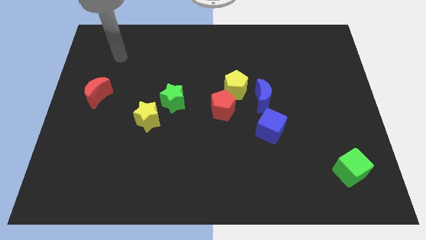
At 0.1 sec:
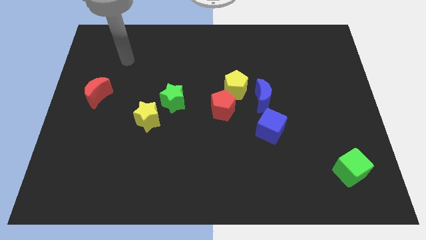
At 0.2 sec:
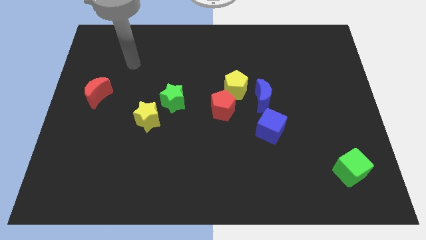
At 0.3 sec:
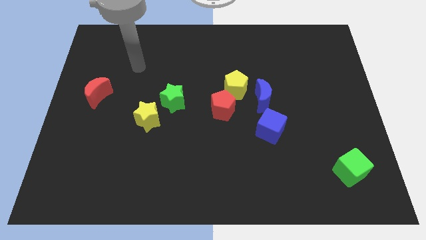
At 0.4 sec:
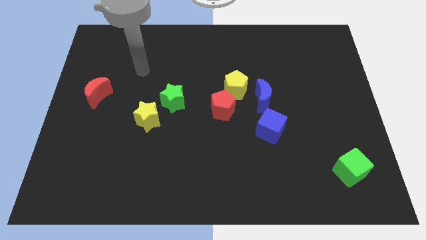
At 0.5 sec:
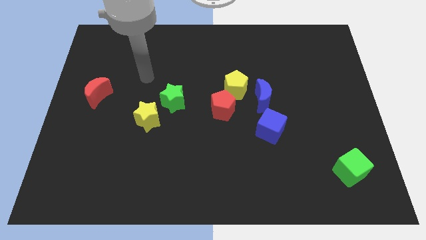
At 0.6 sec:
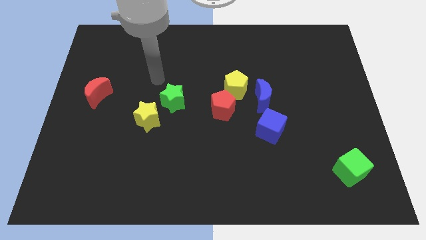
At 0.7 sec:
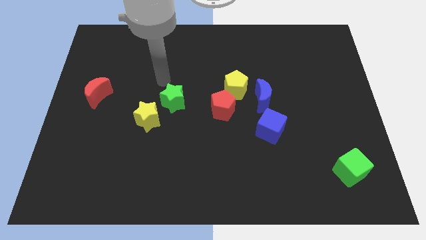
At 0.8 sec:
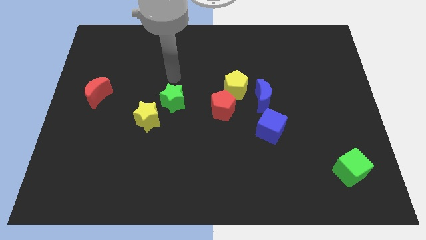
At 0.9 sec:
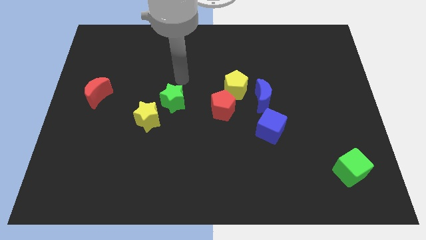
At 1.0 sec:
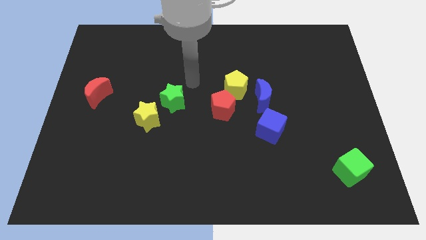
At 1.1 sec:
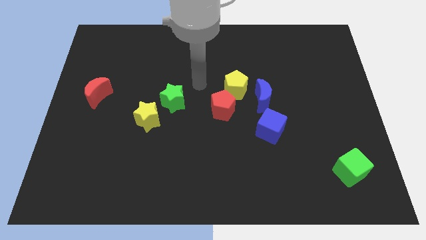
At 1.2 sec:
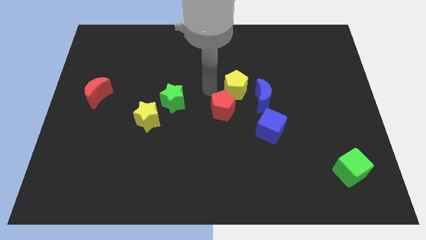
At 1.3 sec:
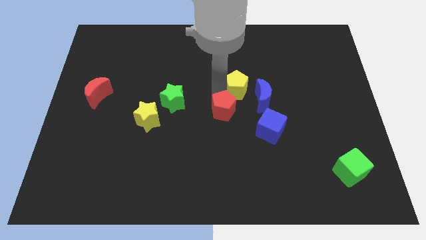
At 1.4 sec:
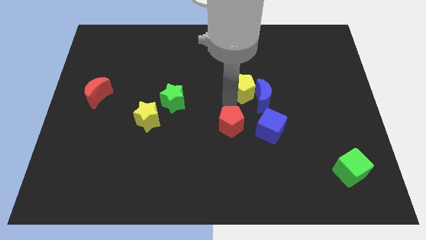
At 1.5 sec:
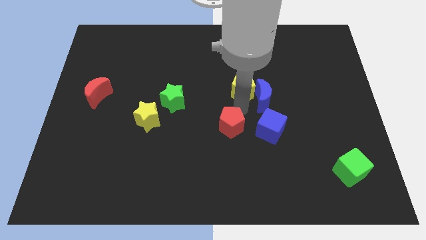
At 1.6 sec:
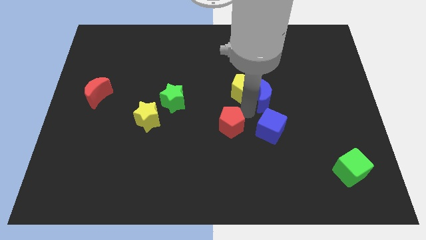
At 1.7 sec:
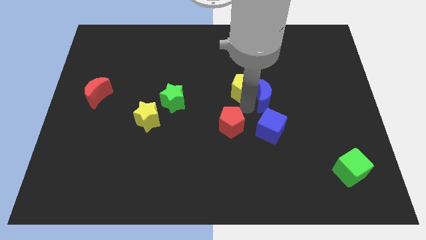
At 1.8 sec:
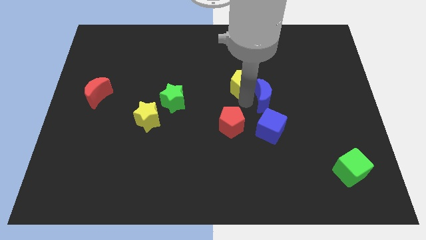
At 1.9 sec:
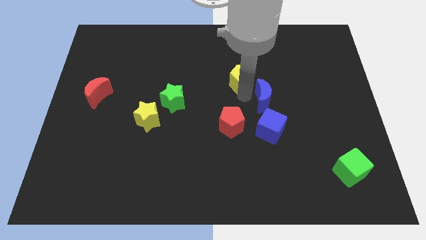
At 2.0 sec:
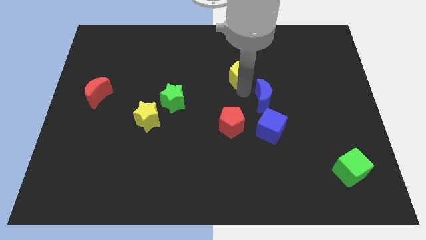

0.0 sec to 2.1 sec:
pull the yellow pentagon apart from the red pentagon and blue moon

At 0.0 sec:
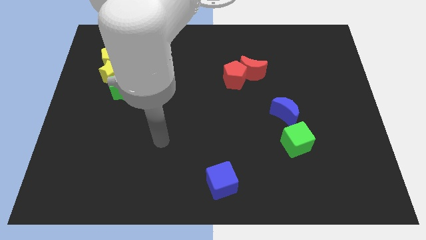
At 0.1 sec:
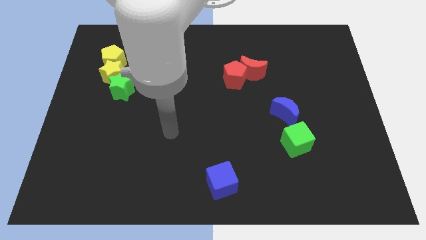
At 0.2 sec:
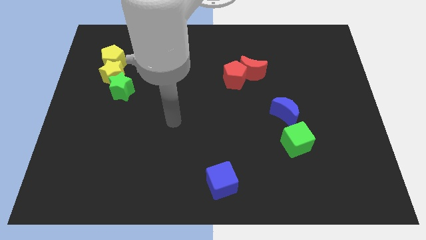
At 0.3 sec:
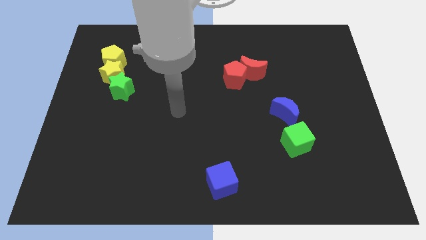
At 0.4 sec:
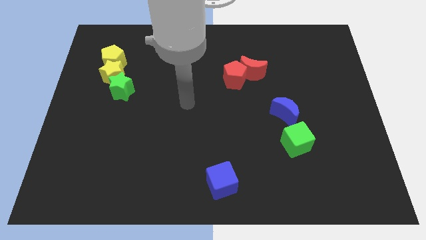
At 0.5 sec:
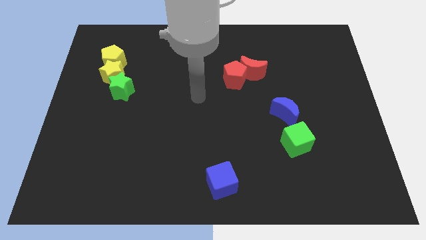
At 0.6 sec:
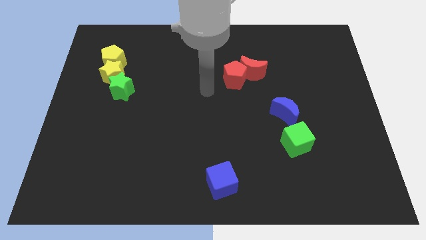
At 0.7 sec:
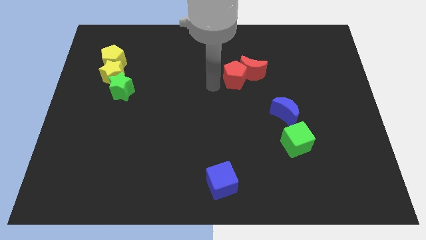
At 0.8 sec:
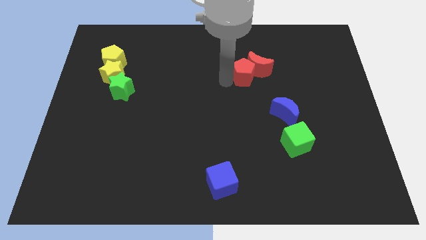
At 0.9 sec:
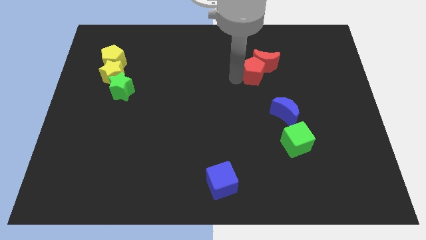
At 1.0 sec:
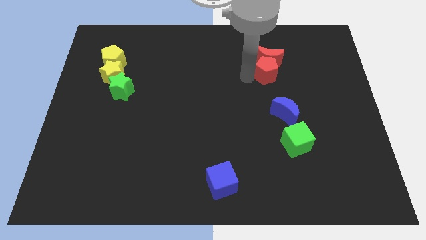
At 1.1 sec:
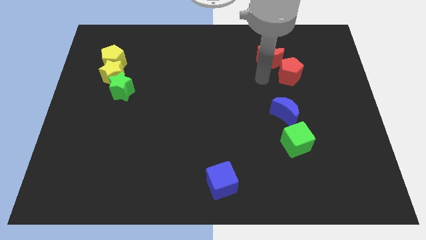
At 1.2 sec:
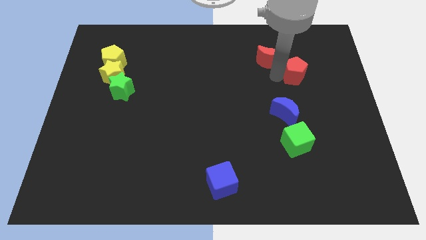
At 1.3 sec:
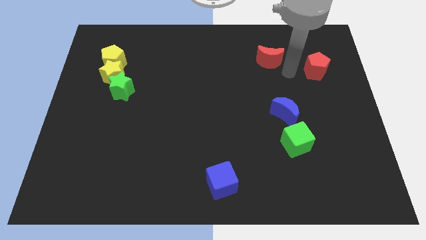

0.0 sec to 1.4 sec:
separate the red moon from the red pentagon

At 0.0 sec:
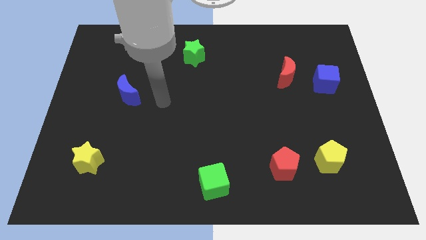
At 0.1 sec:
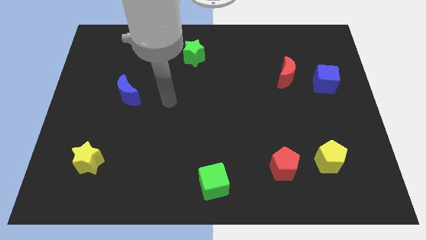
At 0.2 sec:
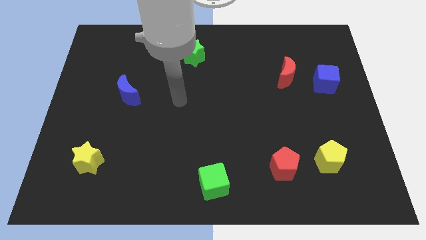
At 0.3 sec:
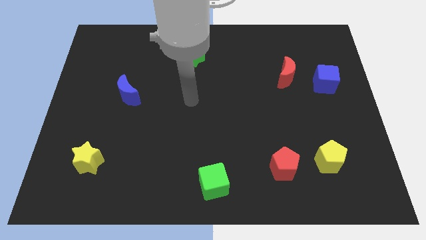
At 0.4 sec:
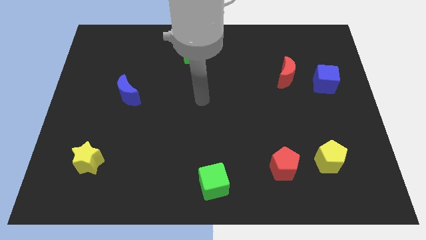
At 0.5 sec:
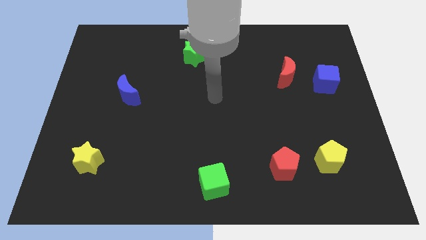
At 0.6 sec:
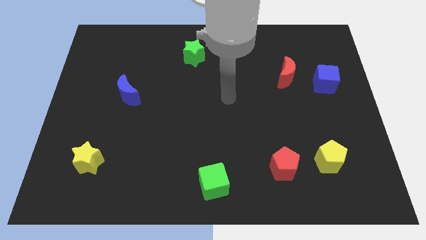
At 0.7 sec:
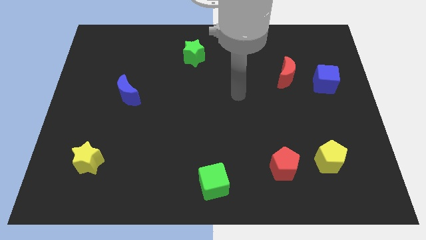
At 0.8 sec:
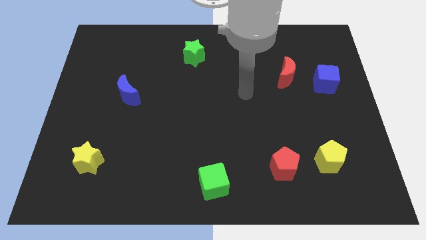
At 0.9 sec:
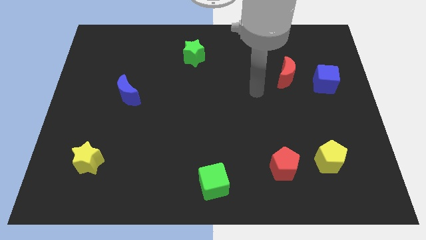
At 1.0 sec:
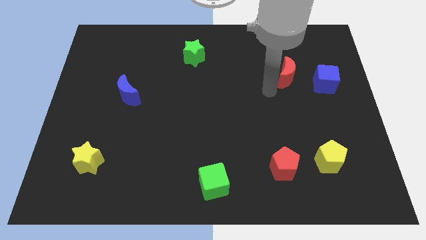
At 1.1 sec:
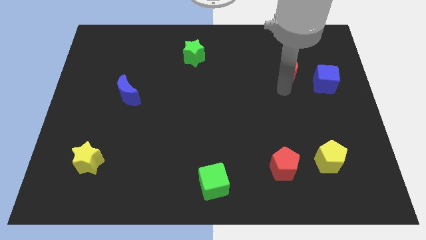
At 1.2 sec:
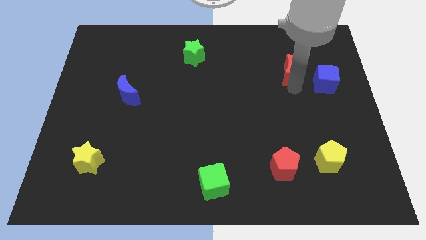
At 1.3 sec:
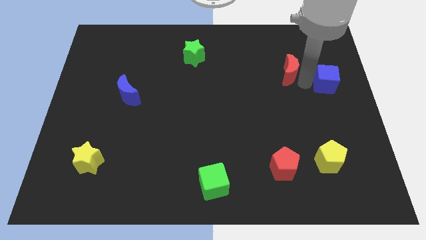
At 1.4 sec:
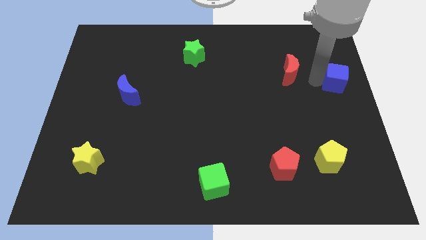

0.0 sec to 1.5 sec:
move the red moon away from the blue cube

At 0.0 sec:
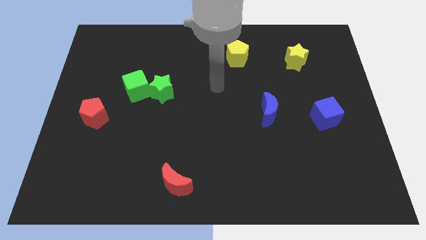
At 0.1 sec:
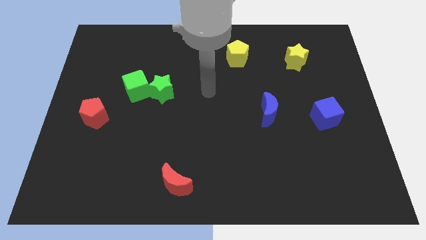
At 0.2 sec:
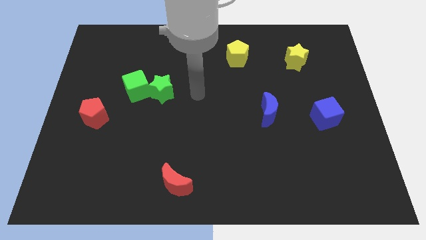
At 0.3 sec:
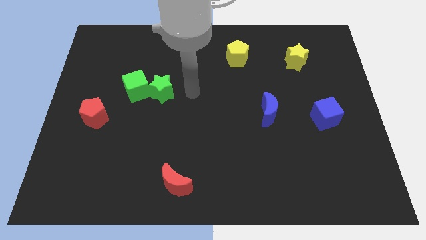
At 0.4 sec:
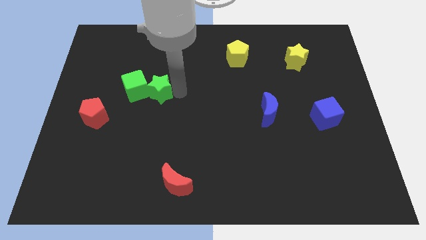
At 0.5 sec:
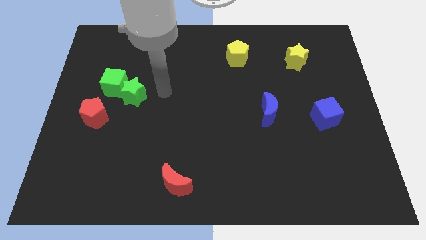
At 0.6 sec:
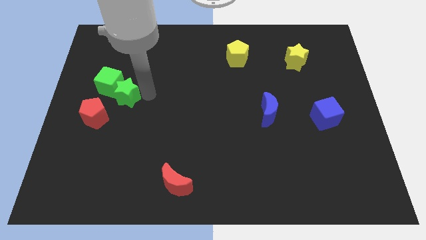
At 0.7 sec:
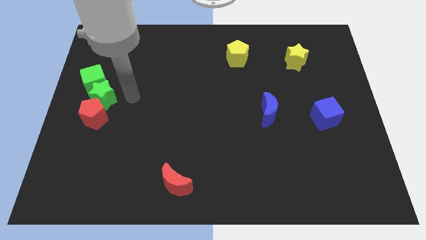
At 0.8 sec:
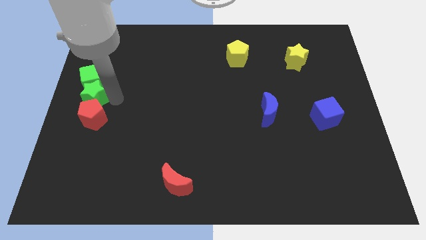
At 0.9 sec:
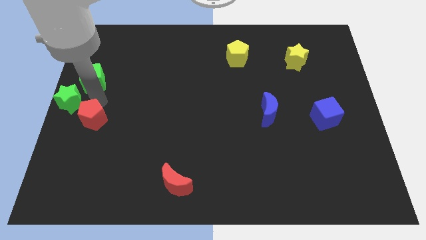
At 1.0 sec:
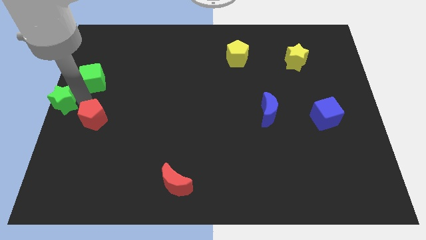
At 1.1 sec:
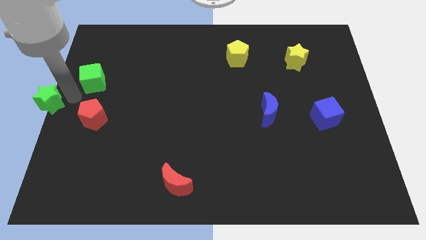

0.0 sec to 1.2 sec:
separate the green cube from the green star

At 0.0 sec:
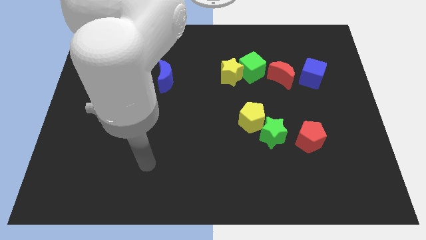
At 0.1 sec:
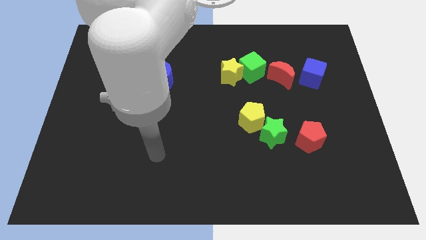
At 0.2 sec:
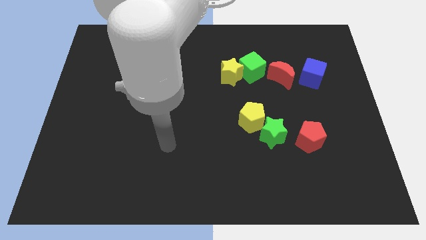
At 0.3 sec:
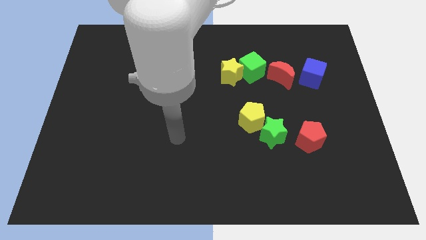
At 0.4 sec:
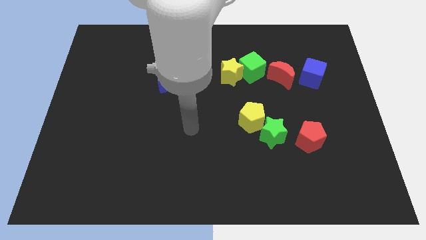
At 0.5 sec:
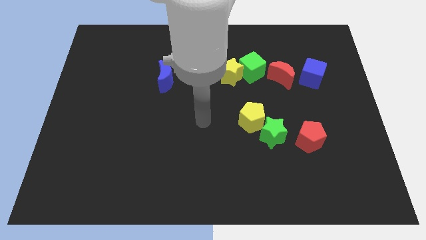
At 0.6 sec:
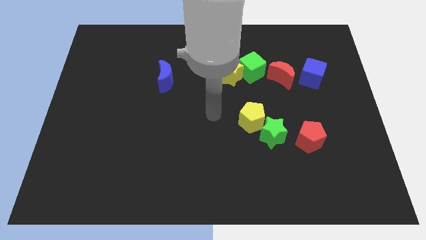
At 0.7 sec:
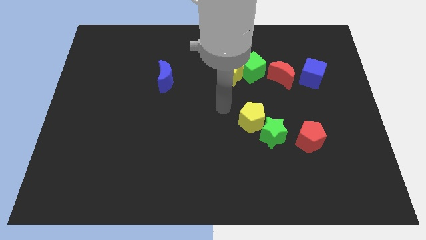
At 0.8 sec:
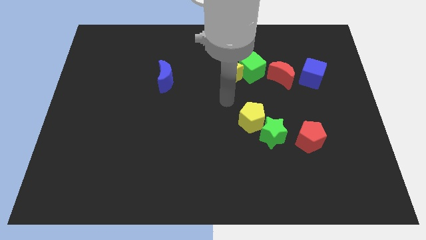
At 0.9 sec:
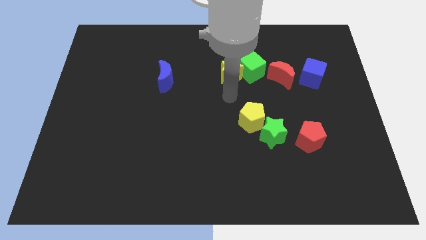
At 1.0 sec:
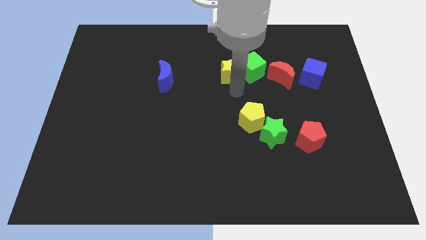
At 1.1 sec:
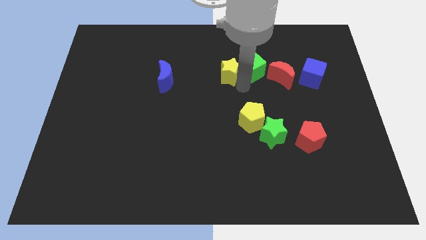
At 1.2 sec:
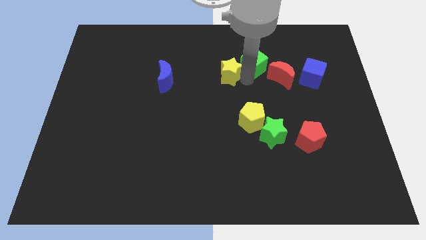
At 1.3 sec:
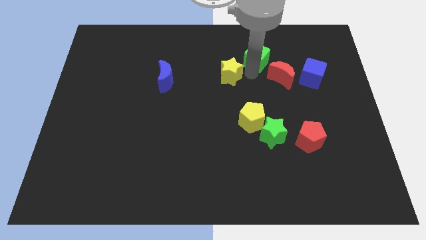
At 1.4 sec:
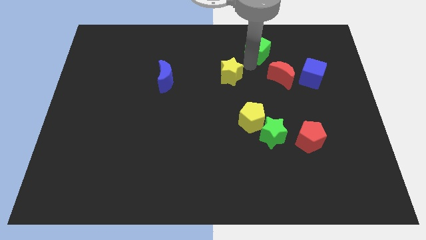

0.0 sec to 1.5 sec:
separate the yellow star from the green cube

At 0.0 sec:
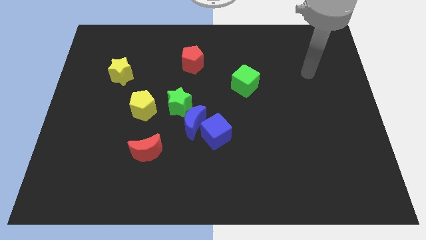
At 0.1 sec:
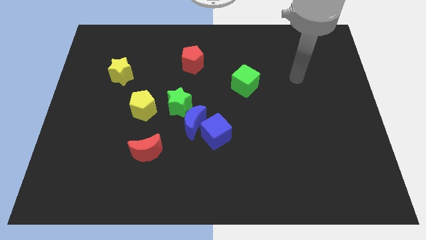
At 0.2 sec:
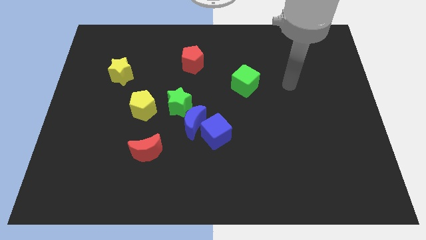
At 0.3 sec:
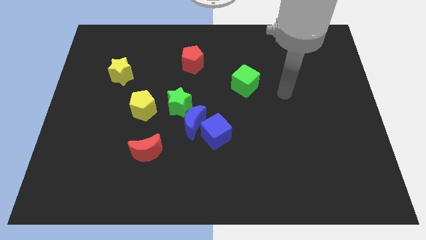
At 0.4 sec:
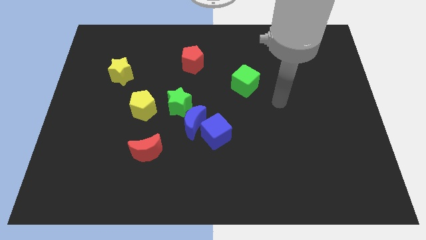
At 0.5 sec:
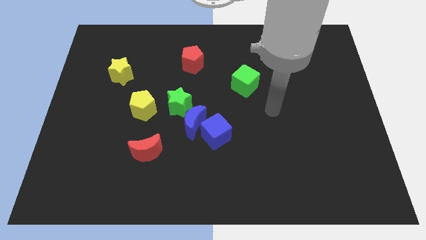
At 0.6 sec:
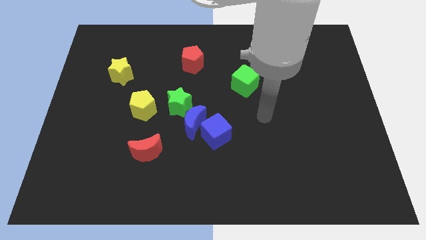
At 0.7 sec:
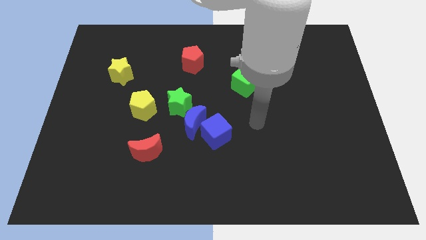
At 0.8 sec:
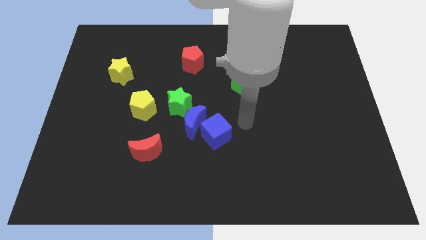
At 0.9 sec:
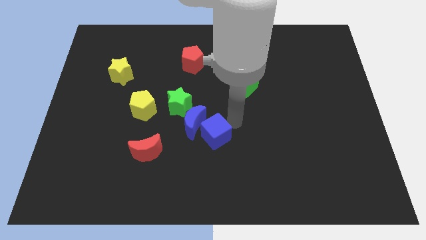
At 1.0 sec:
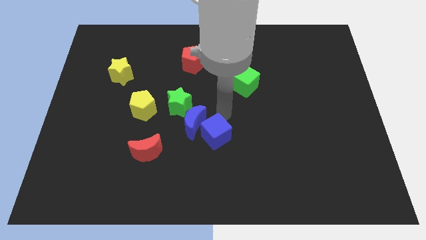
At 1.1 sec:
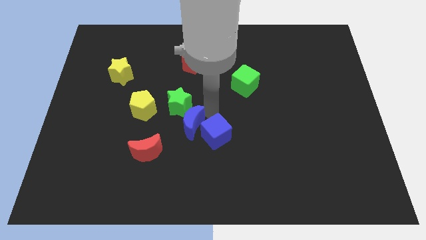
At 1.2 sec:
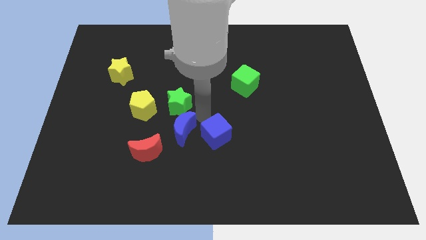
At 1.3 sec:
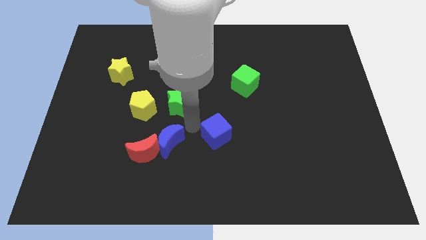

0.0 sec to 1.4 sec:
separate the blue cube from the blue moon

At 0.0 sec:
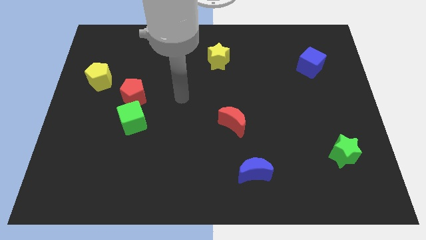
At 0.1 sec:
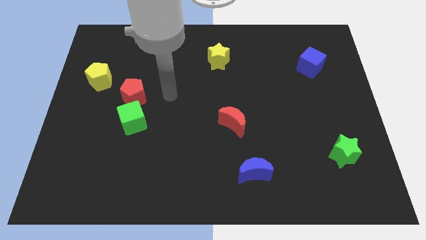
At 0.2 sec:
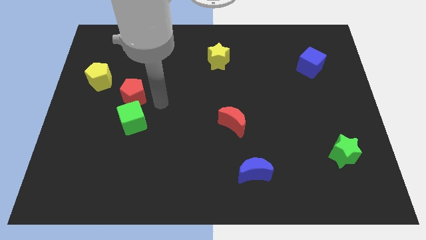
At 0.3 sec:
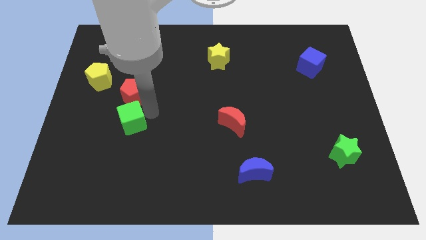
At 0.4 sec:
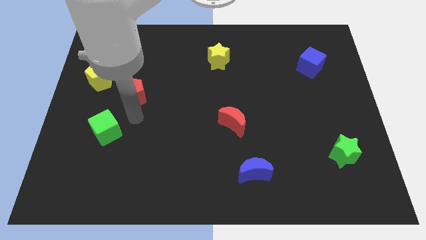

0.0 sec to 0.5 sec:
move the red pentagon away from the green cube
